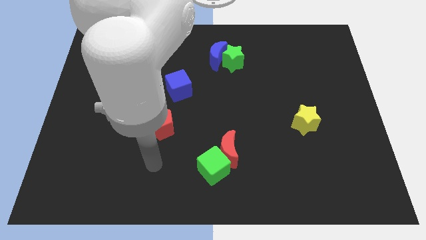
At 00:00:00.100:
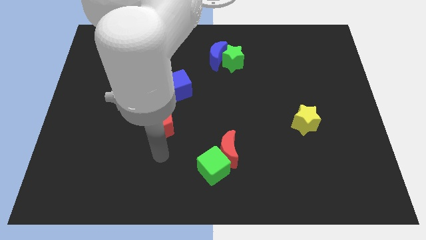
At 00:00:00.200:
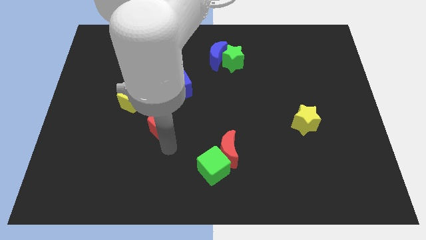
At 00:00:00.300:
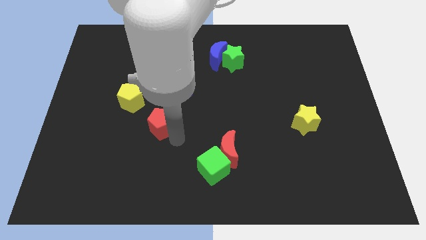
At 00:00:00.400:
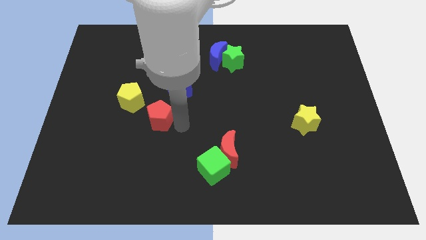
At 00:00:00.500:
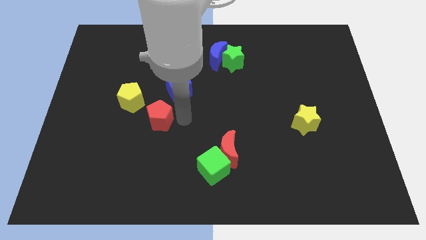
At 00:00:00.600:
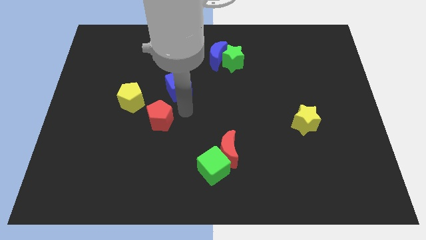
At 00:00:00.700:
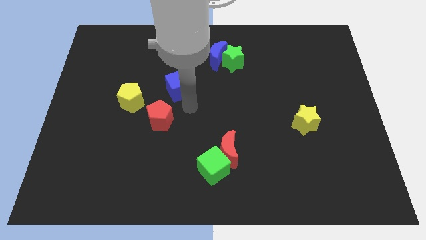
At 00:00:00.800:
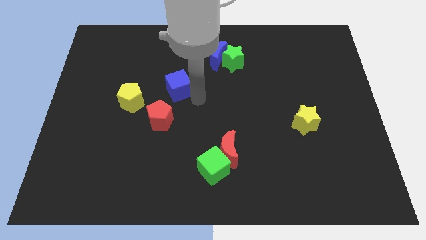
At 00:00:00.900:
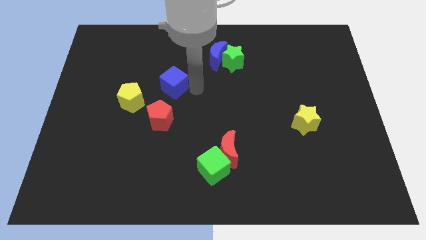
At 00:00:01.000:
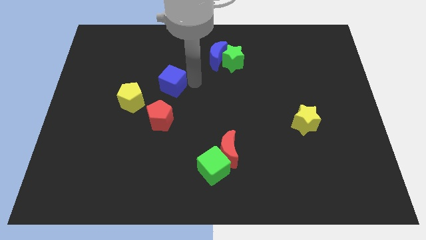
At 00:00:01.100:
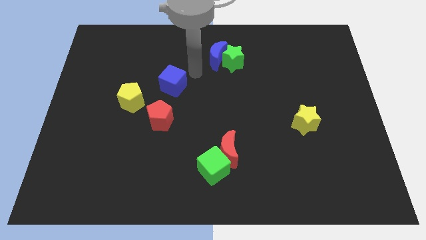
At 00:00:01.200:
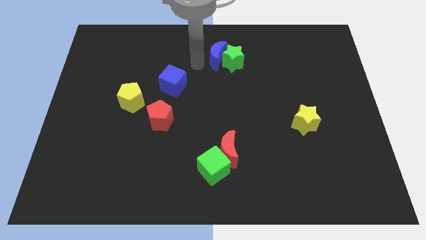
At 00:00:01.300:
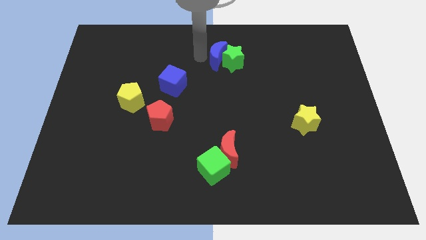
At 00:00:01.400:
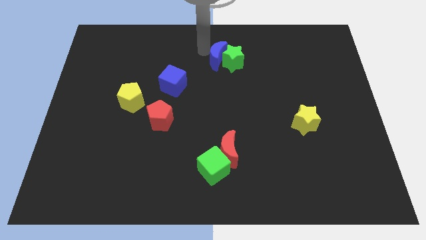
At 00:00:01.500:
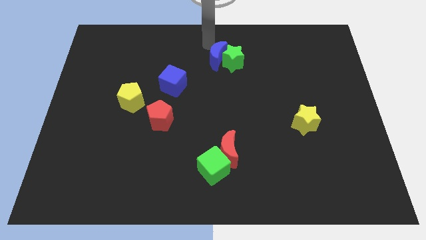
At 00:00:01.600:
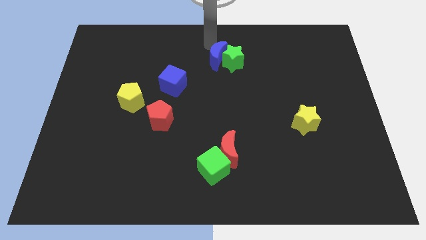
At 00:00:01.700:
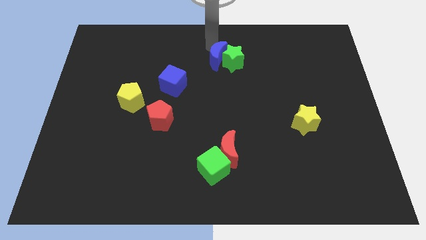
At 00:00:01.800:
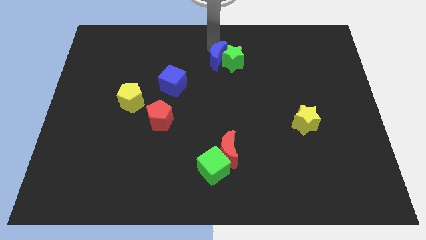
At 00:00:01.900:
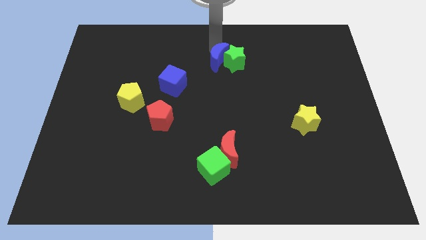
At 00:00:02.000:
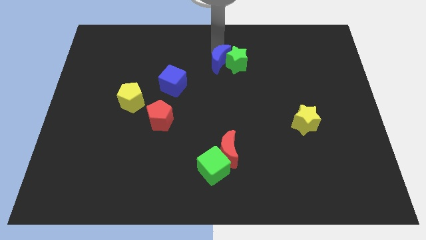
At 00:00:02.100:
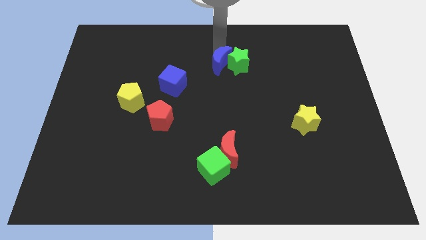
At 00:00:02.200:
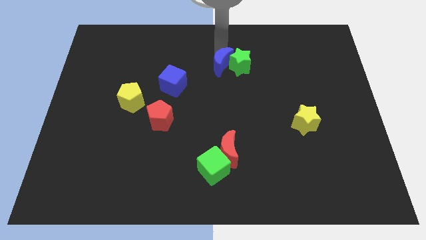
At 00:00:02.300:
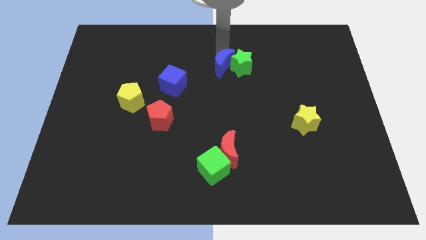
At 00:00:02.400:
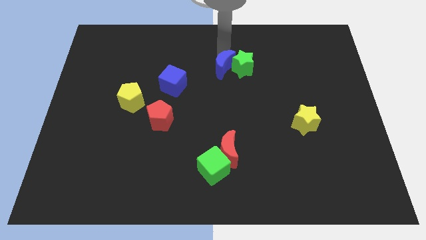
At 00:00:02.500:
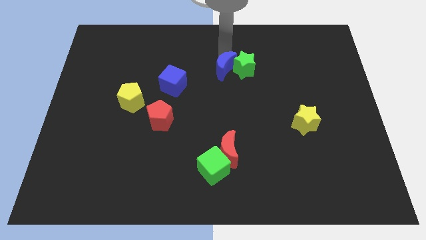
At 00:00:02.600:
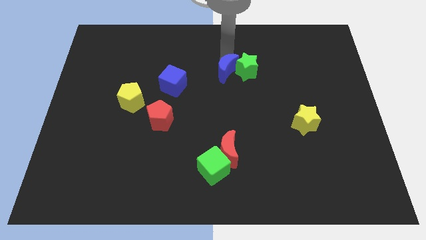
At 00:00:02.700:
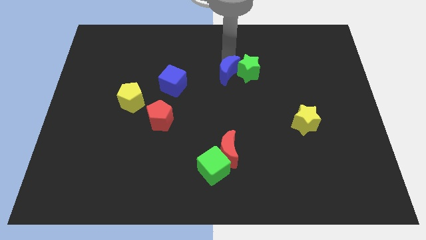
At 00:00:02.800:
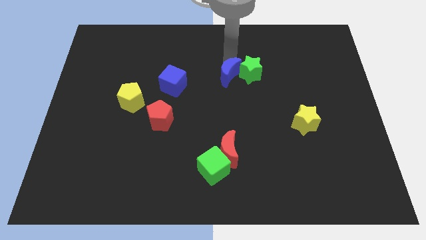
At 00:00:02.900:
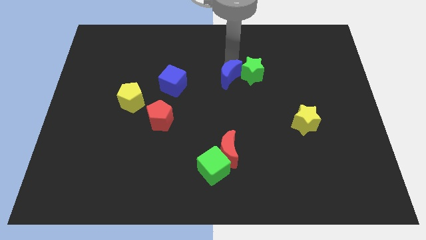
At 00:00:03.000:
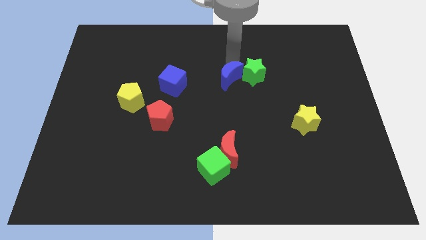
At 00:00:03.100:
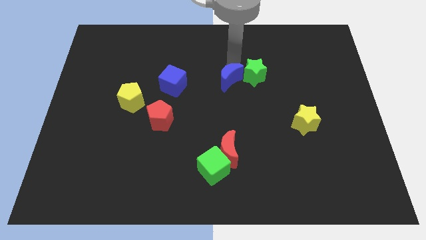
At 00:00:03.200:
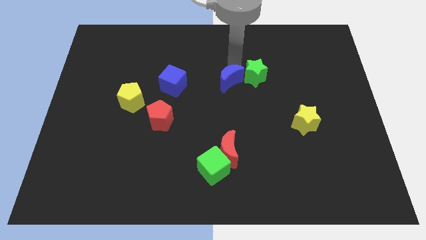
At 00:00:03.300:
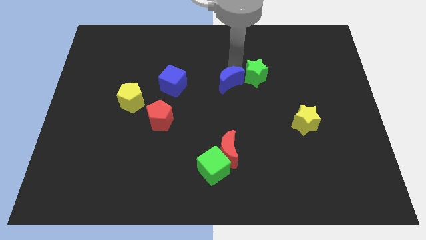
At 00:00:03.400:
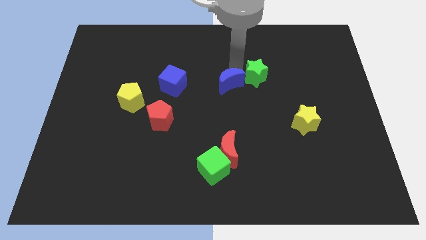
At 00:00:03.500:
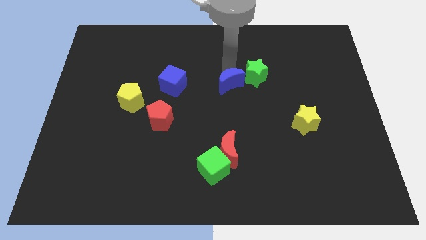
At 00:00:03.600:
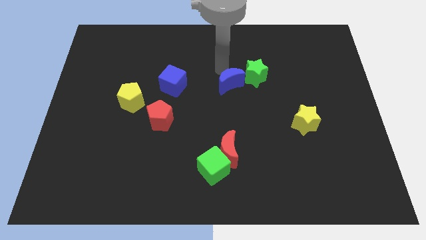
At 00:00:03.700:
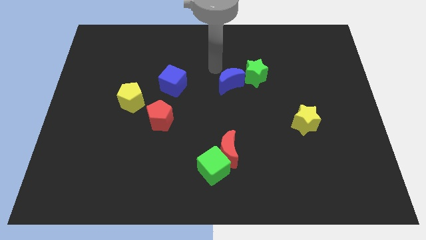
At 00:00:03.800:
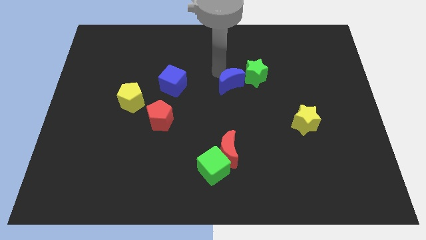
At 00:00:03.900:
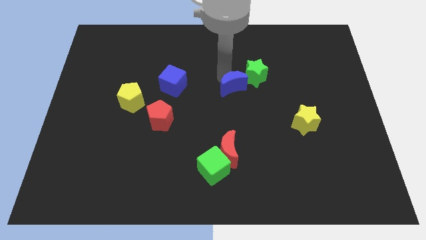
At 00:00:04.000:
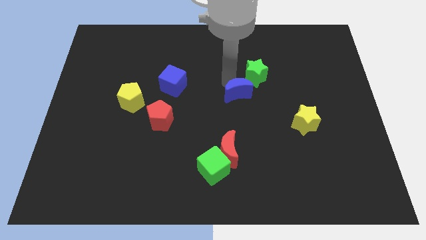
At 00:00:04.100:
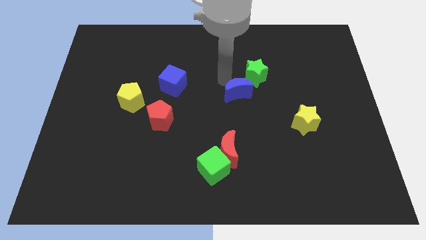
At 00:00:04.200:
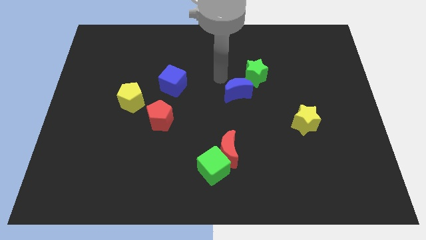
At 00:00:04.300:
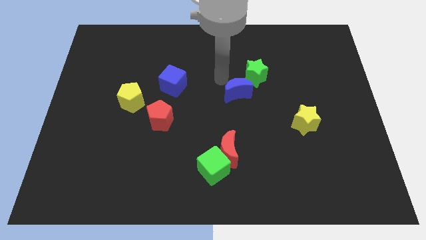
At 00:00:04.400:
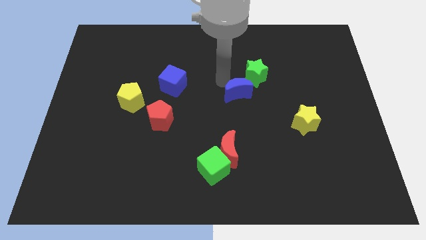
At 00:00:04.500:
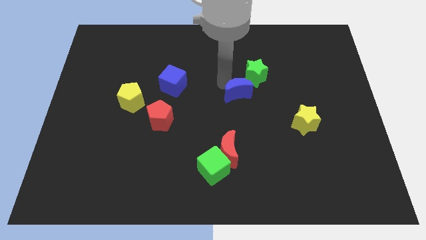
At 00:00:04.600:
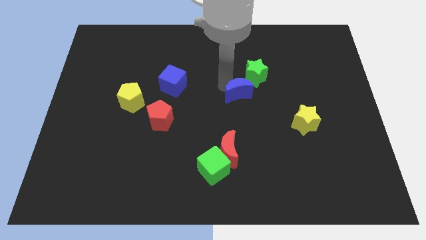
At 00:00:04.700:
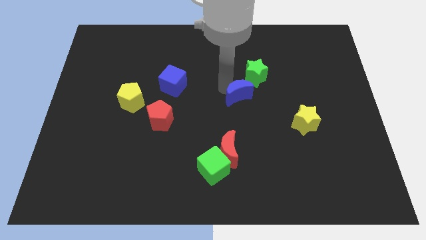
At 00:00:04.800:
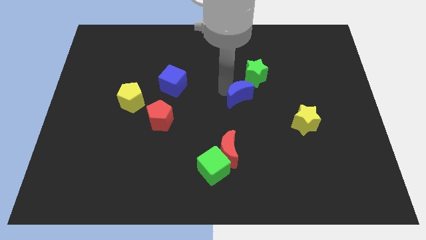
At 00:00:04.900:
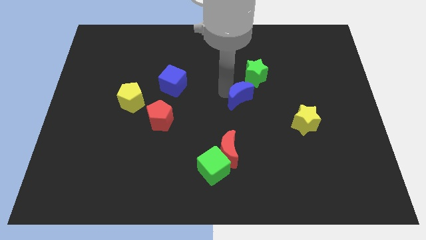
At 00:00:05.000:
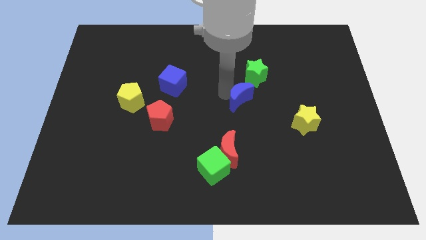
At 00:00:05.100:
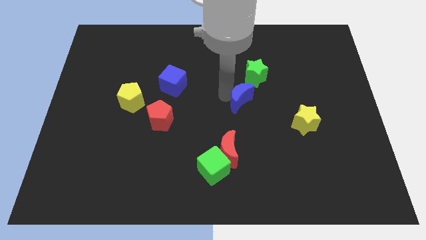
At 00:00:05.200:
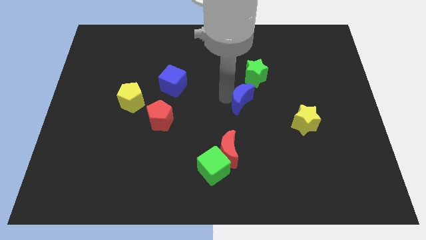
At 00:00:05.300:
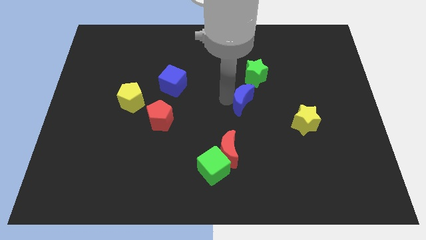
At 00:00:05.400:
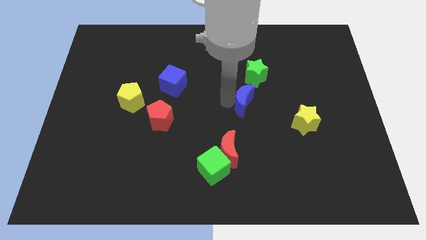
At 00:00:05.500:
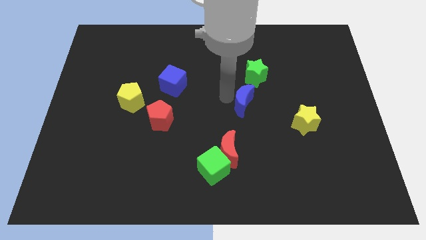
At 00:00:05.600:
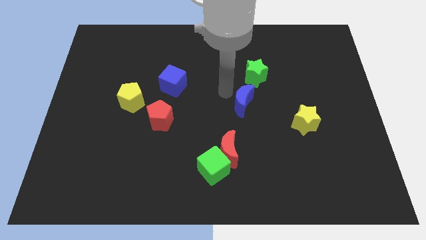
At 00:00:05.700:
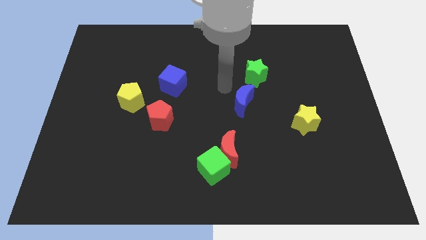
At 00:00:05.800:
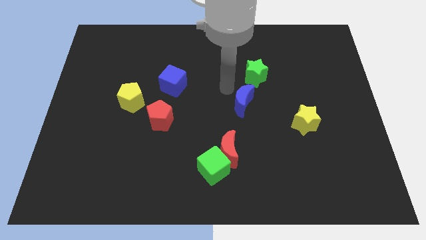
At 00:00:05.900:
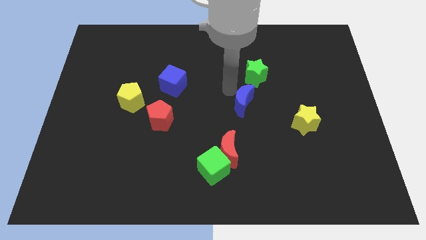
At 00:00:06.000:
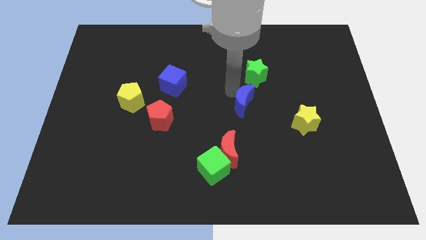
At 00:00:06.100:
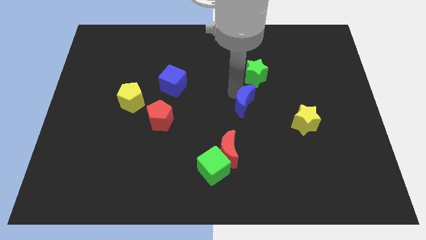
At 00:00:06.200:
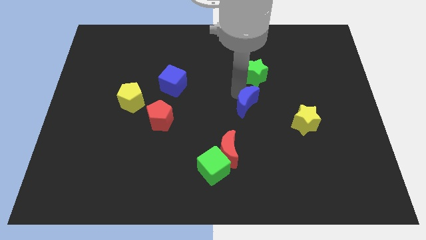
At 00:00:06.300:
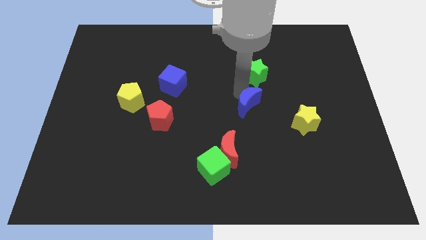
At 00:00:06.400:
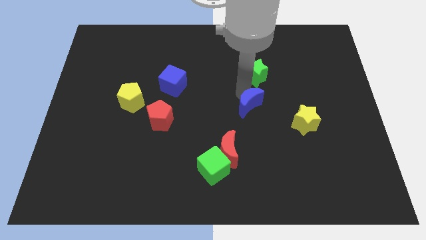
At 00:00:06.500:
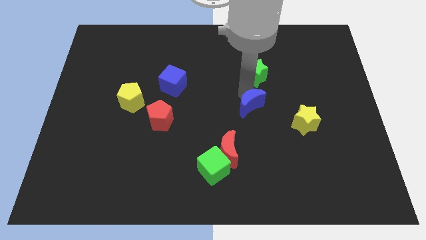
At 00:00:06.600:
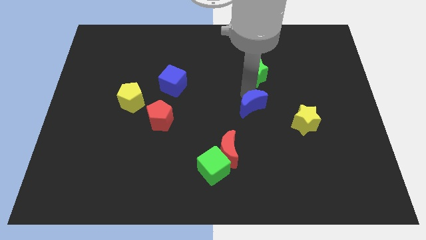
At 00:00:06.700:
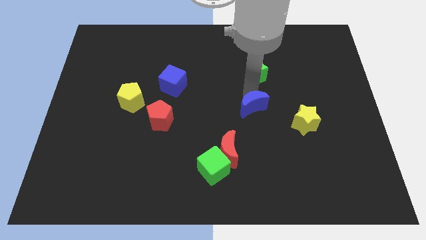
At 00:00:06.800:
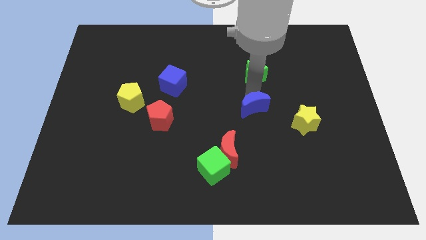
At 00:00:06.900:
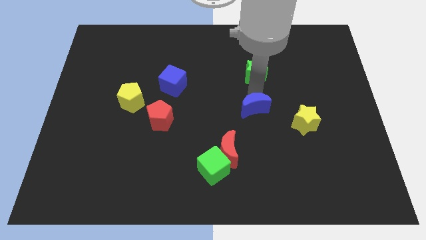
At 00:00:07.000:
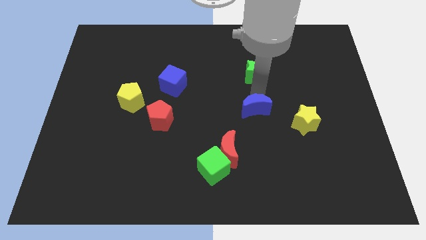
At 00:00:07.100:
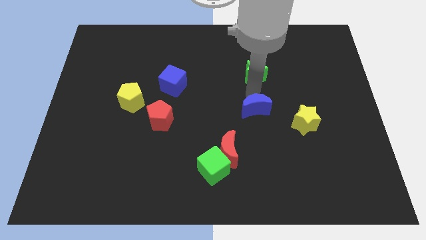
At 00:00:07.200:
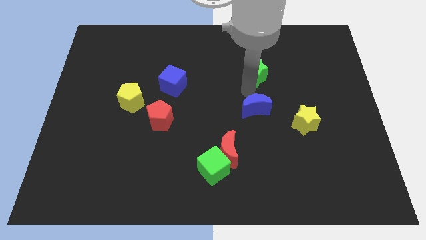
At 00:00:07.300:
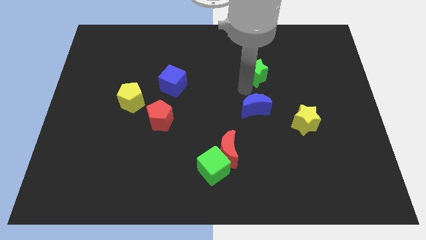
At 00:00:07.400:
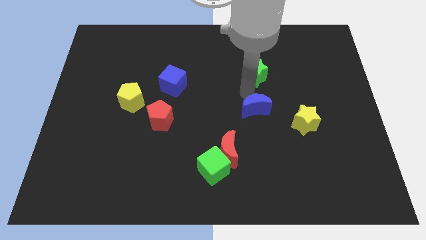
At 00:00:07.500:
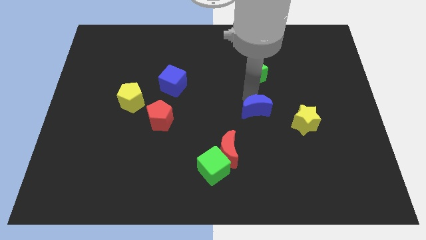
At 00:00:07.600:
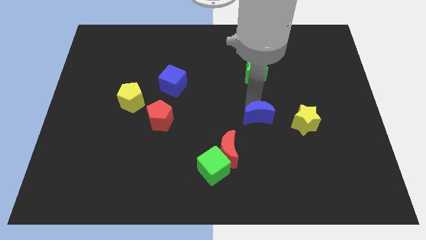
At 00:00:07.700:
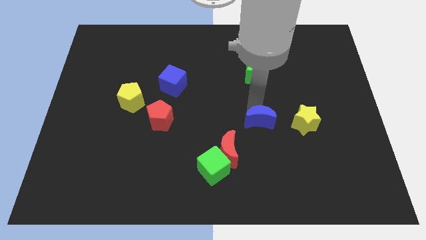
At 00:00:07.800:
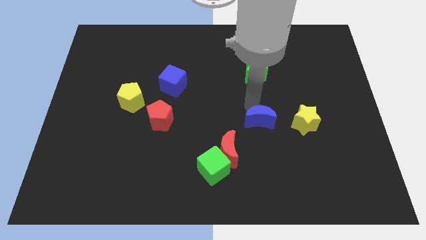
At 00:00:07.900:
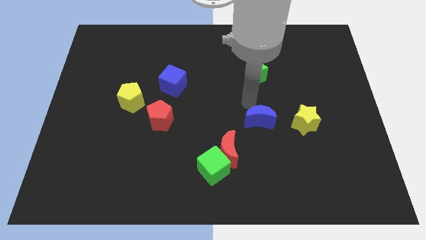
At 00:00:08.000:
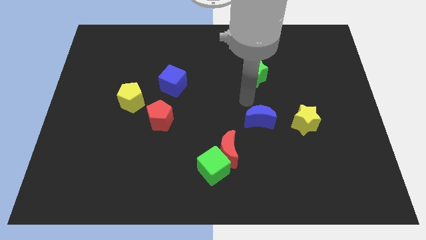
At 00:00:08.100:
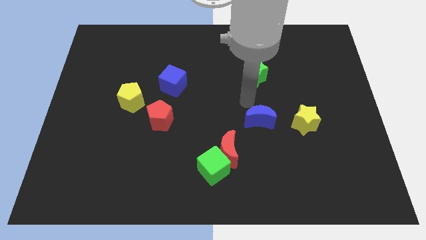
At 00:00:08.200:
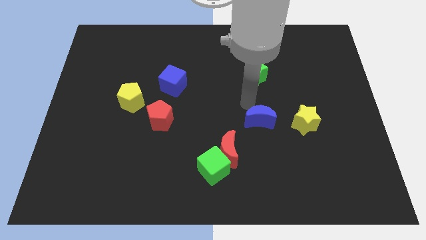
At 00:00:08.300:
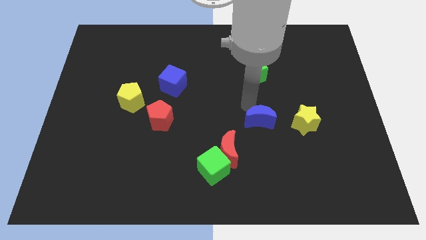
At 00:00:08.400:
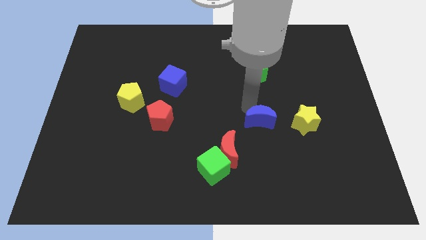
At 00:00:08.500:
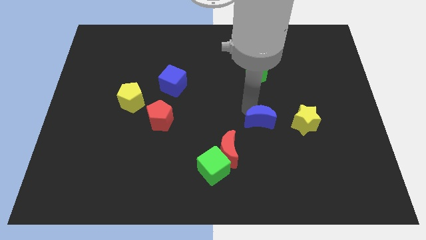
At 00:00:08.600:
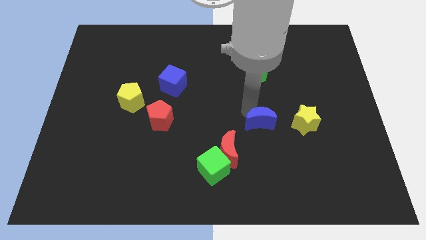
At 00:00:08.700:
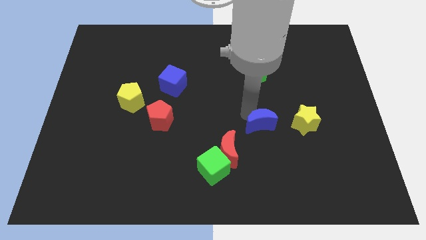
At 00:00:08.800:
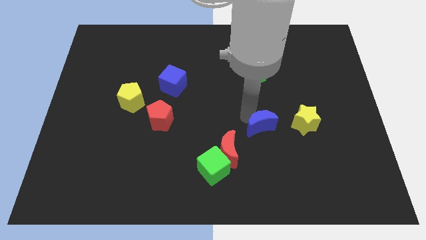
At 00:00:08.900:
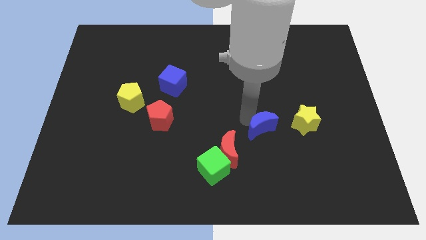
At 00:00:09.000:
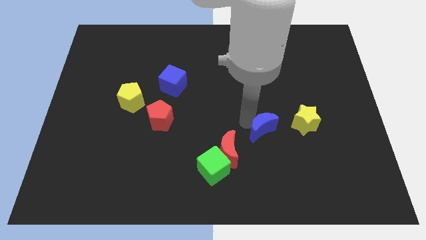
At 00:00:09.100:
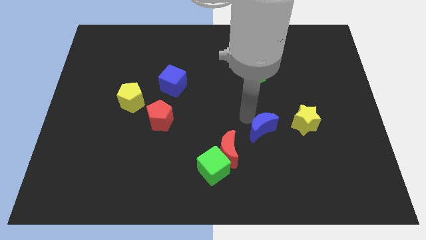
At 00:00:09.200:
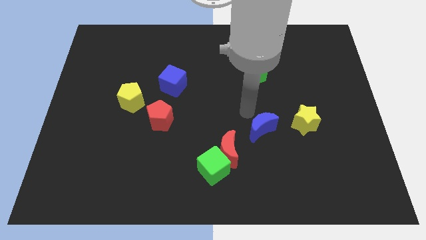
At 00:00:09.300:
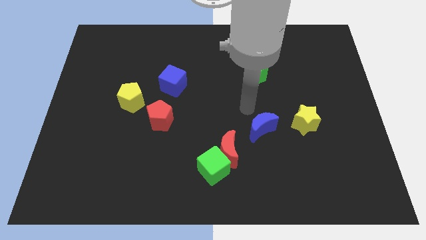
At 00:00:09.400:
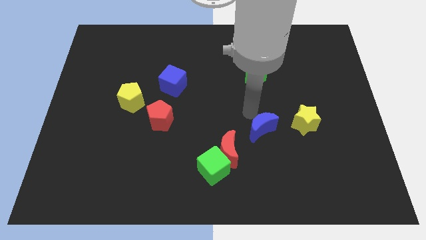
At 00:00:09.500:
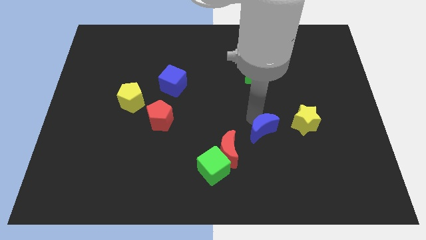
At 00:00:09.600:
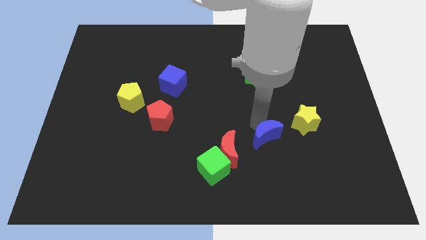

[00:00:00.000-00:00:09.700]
push the blue moon right of the red moon
